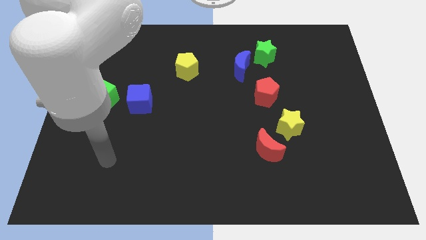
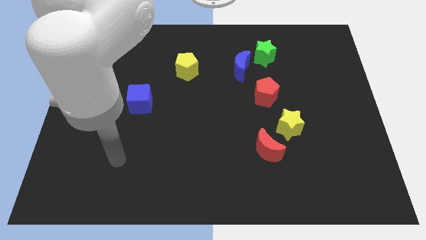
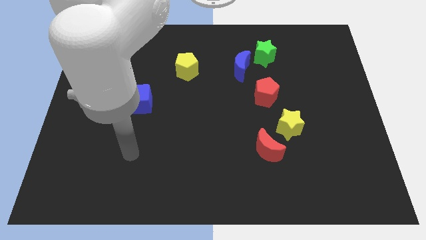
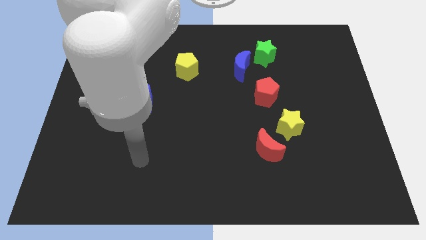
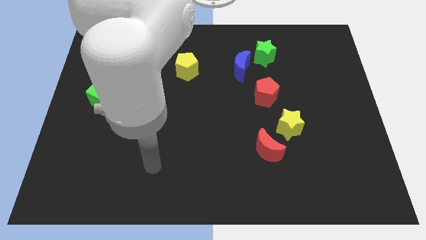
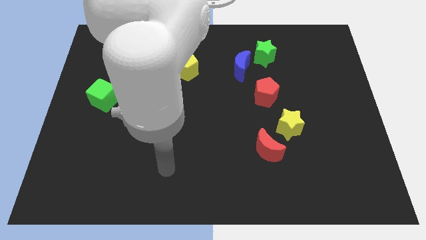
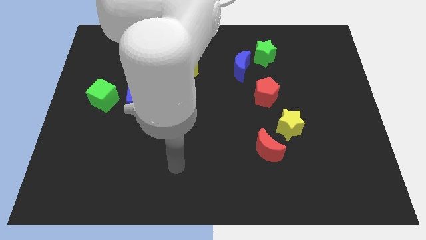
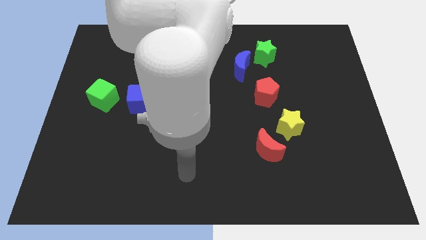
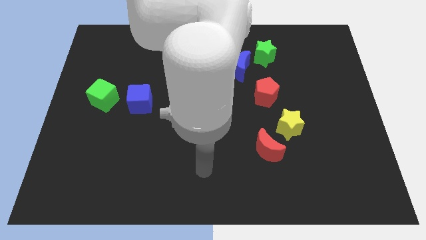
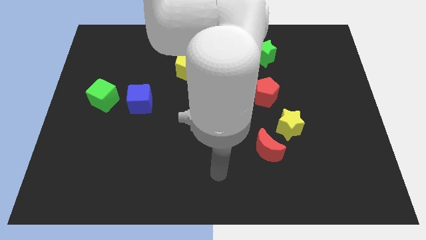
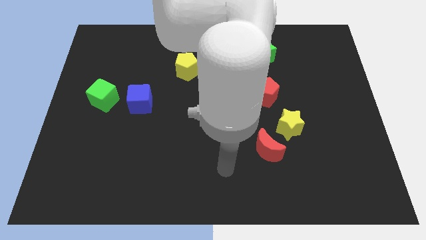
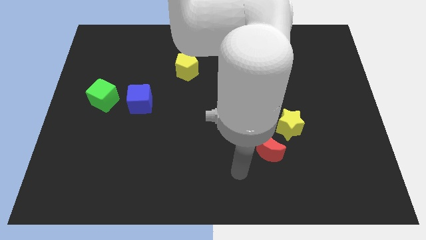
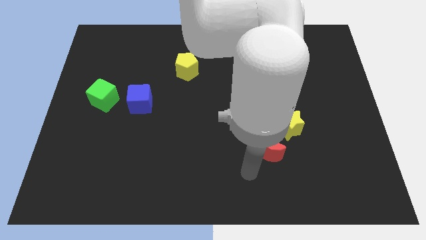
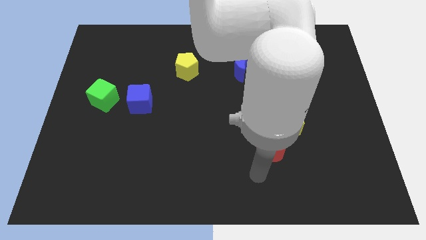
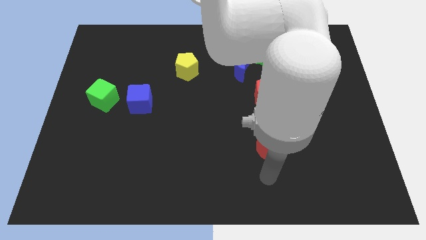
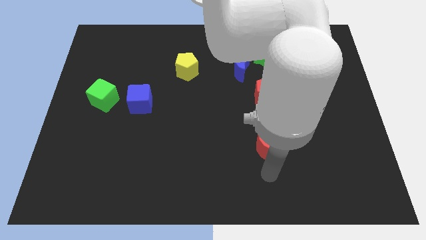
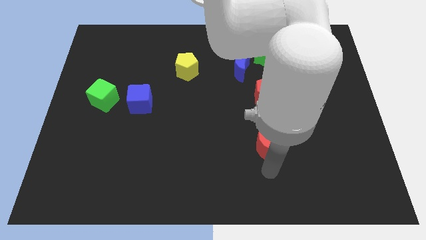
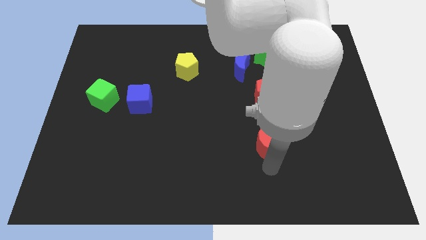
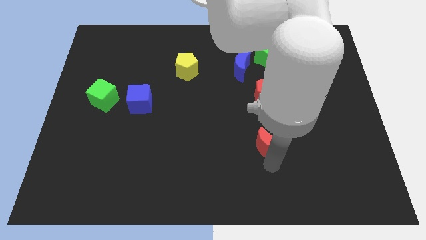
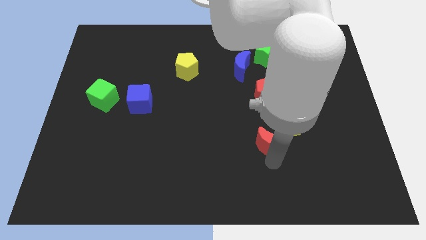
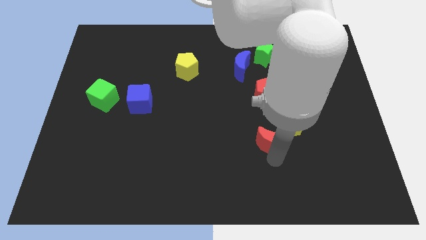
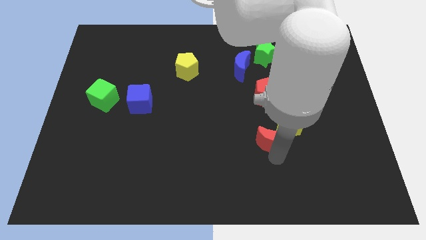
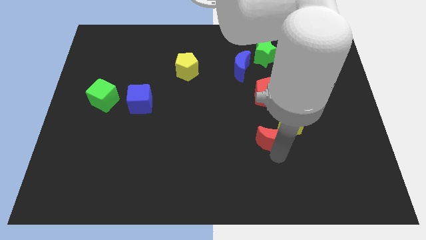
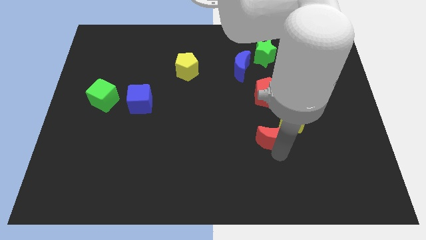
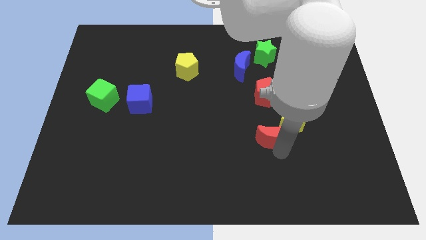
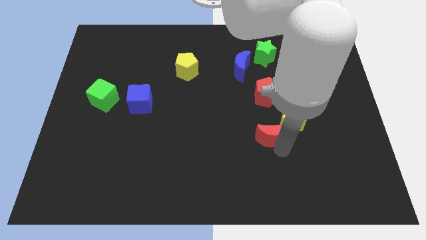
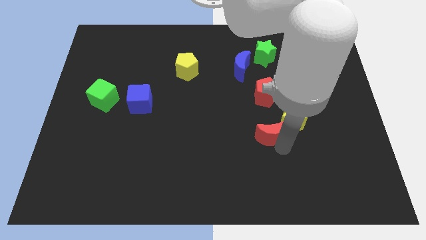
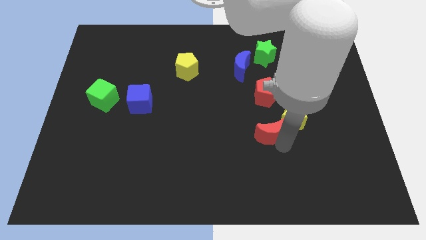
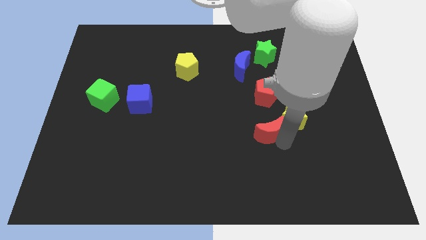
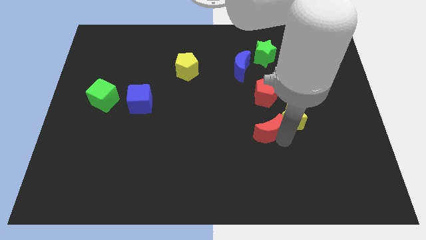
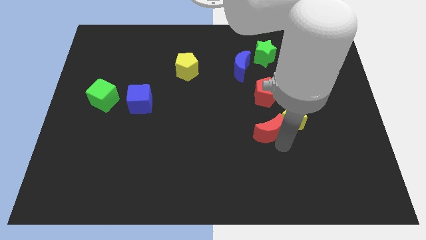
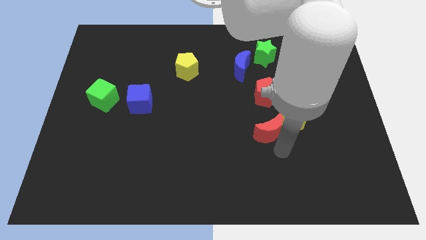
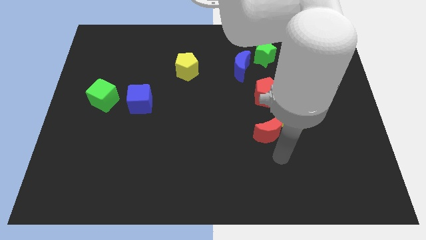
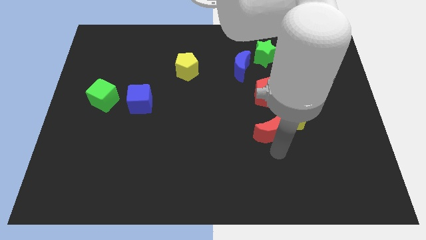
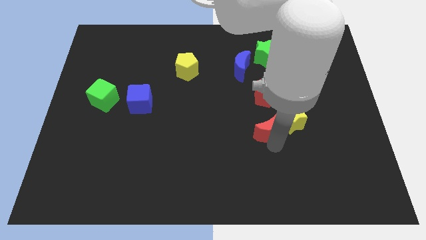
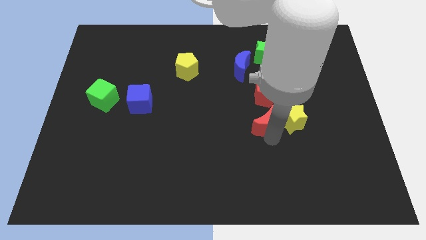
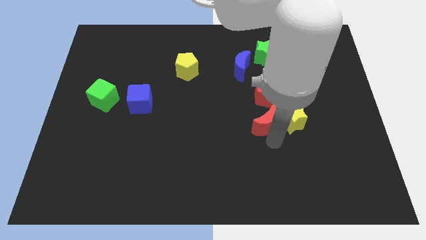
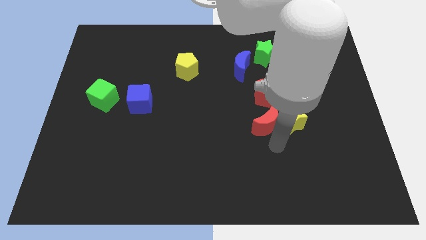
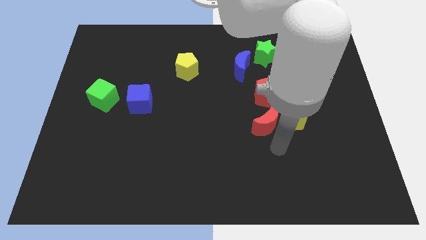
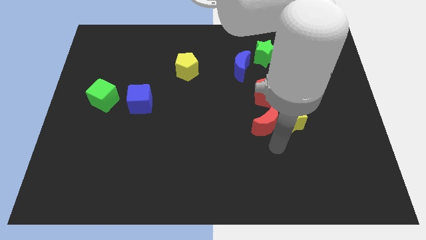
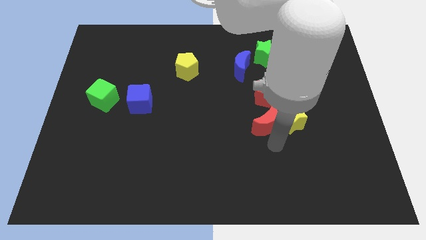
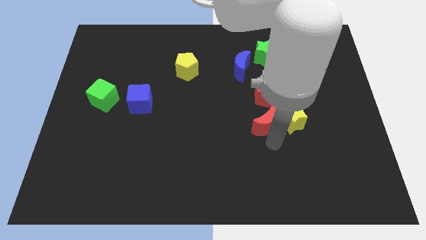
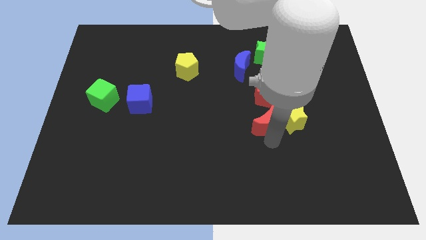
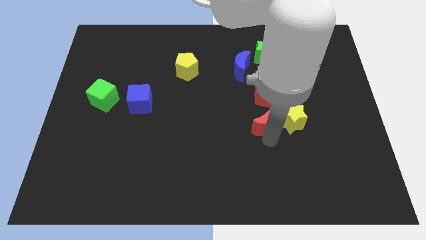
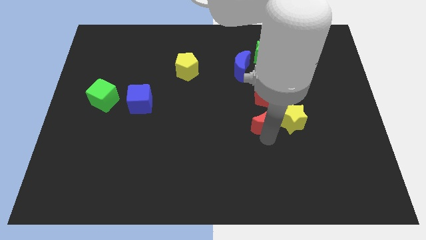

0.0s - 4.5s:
slide the red moon slightly upwards

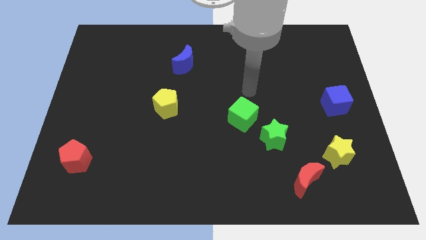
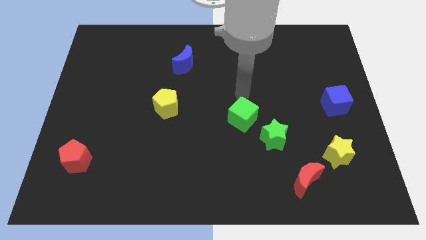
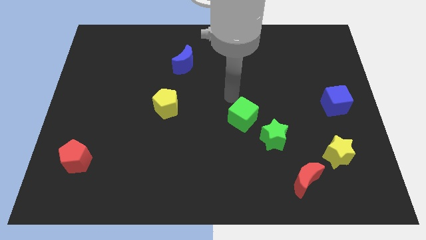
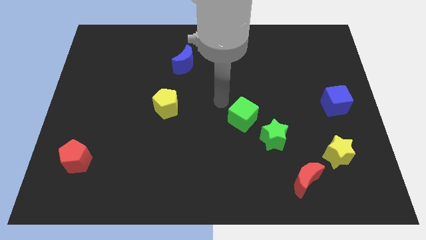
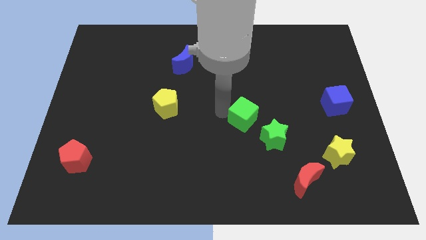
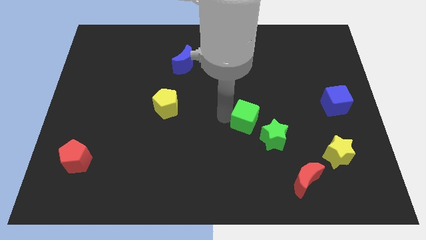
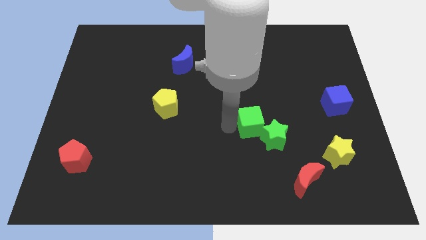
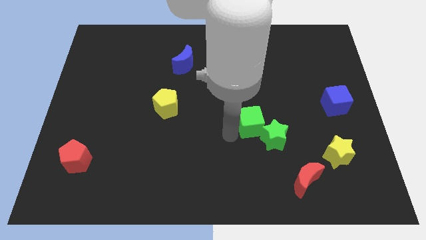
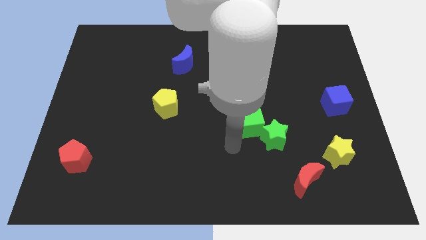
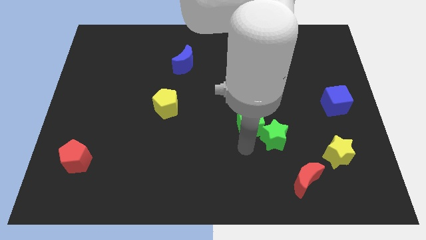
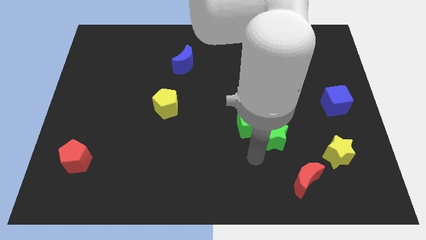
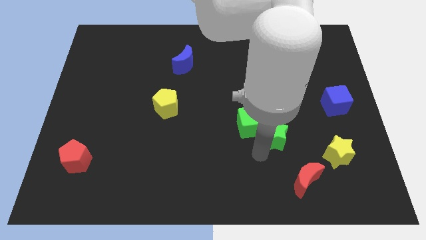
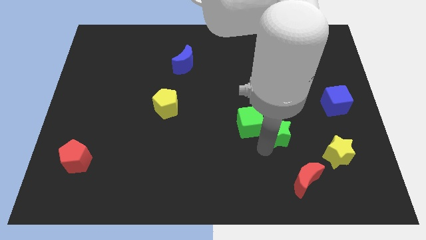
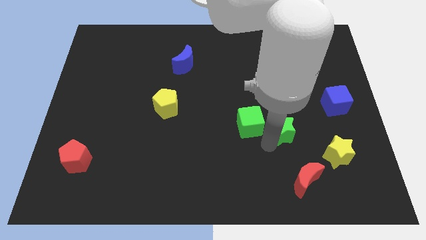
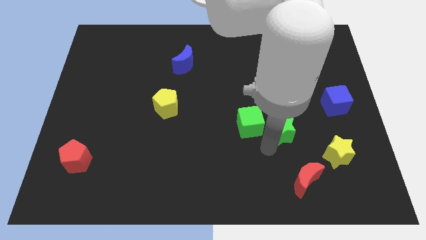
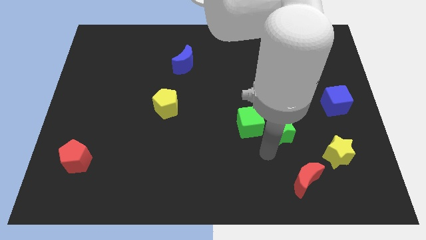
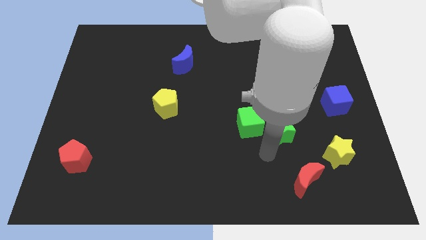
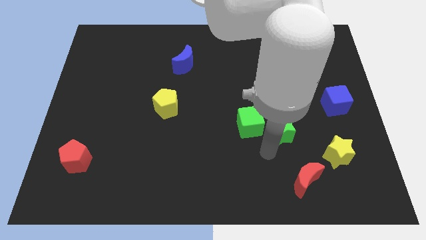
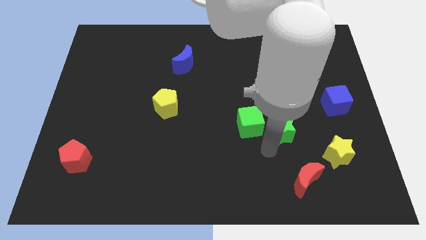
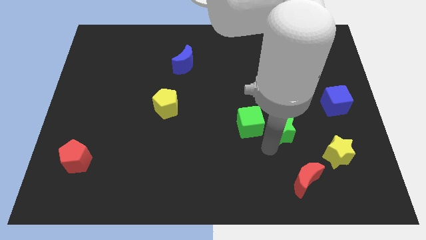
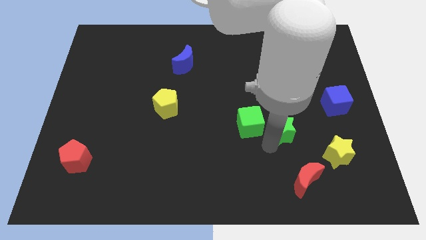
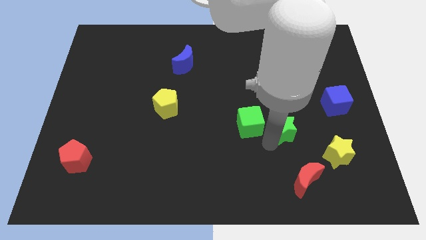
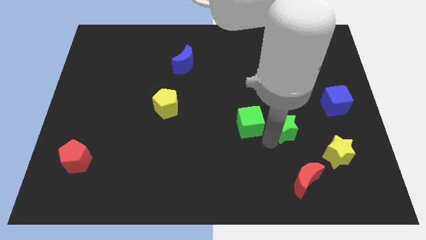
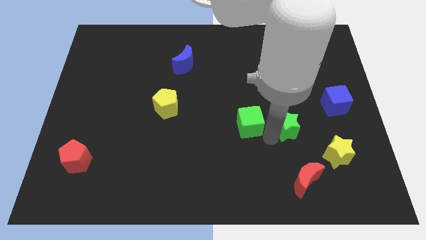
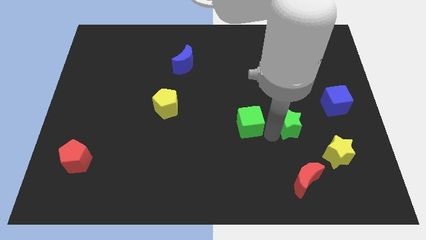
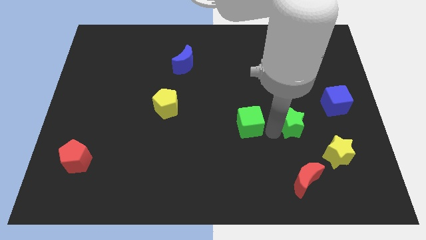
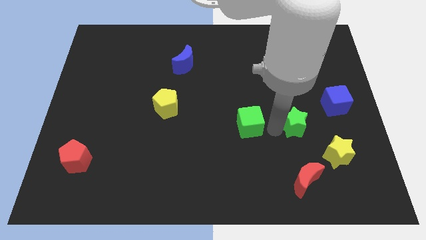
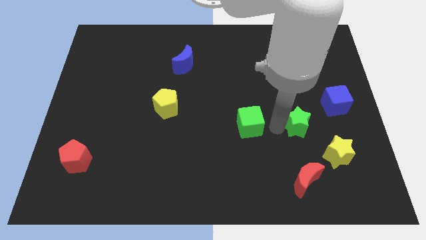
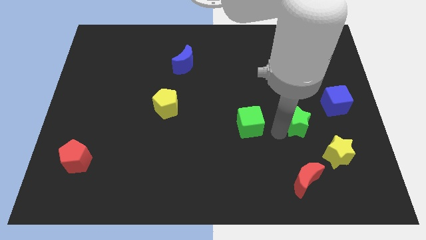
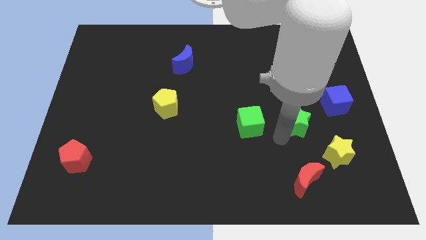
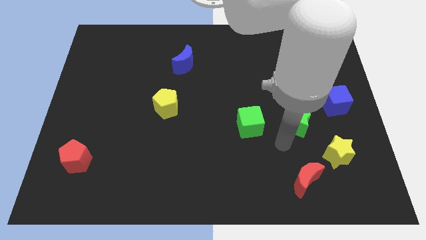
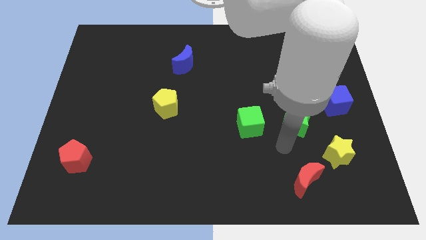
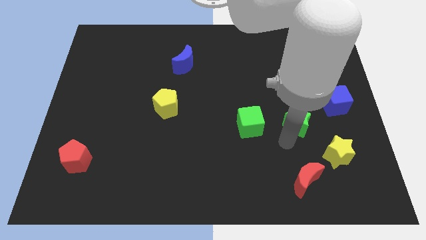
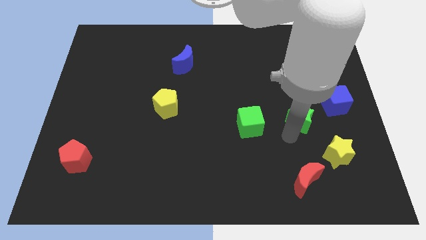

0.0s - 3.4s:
slightly move the green star upwards and right diagonally

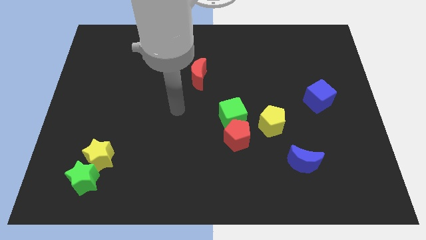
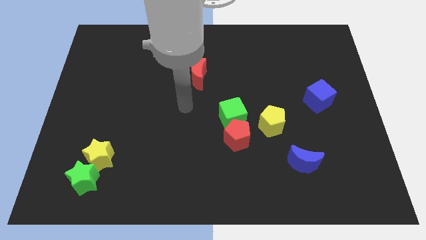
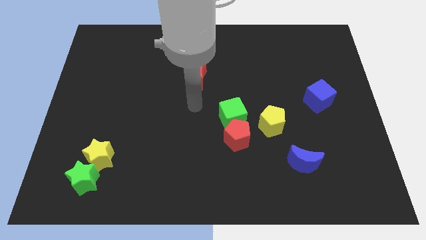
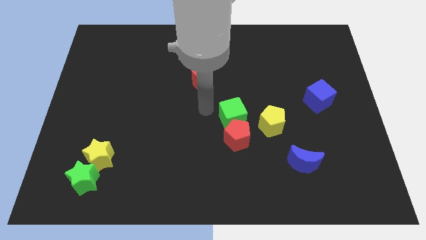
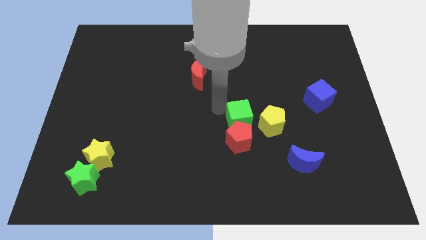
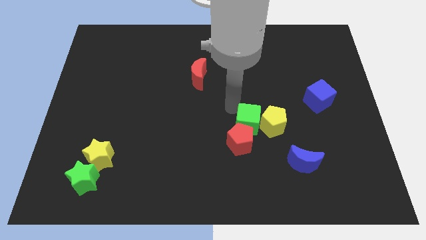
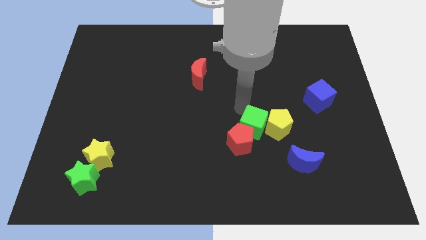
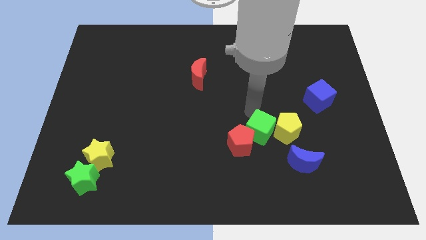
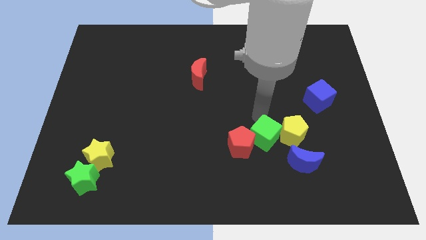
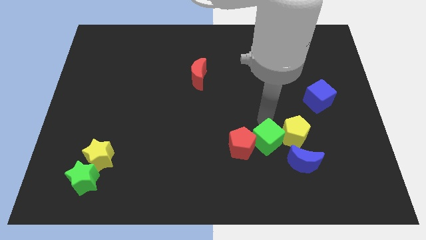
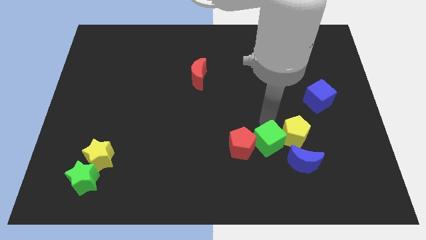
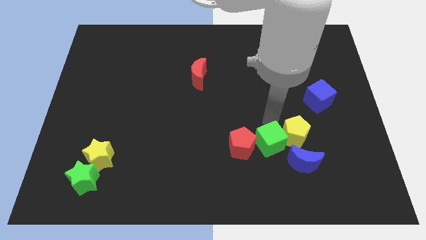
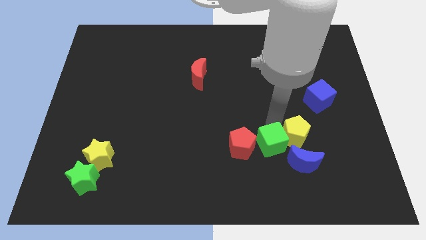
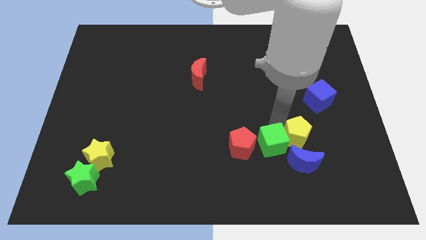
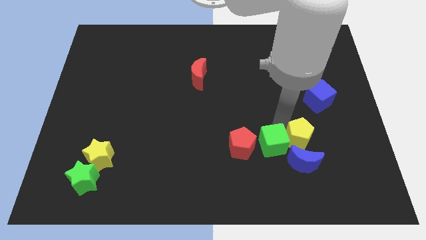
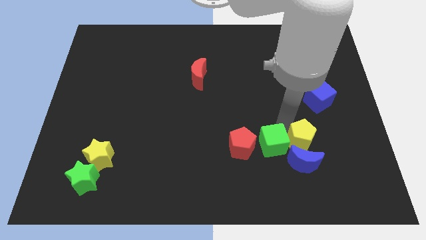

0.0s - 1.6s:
move the yellow pentagon down and right diagonally slightly
